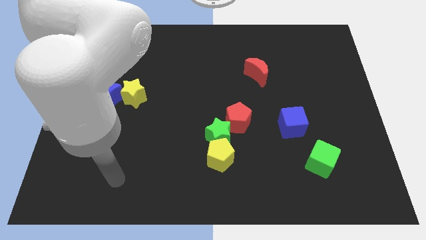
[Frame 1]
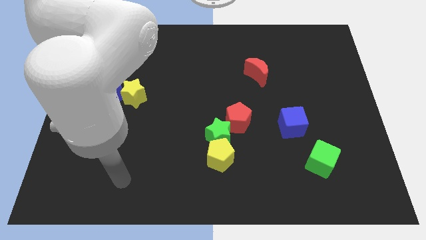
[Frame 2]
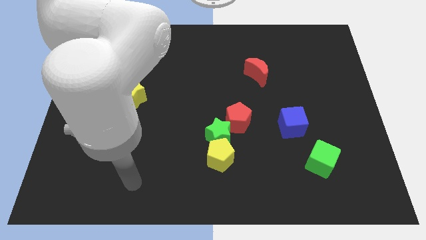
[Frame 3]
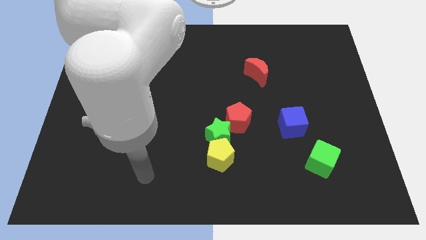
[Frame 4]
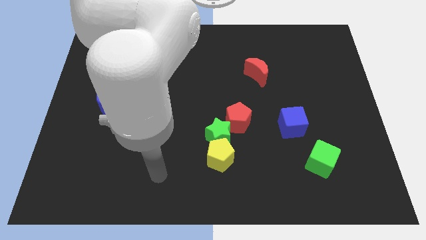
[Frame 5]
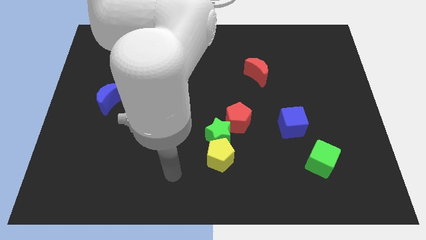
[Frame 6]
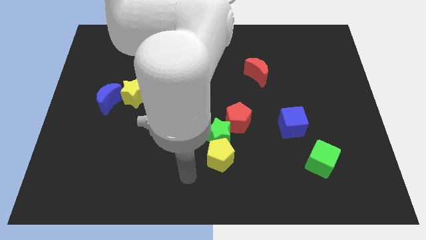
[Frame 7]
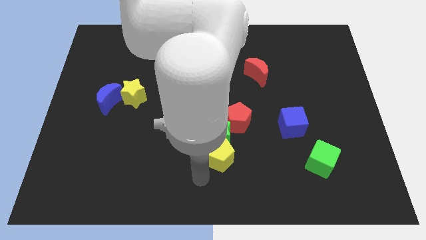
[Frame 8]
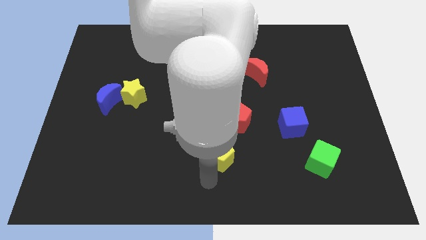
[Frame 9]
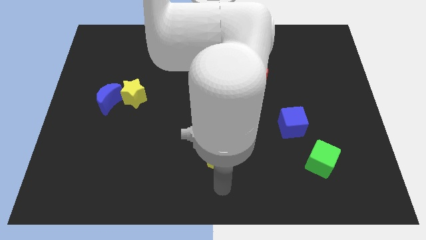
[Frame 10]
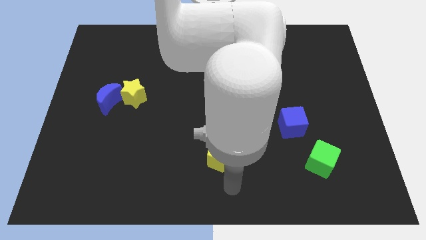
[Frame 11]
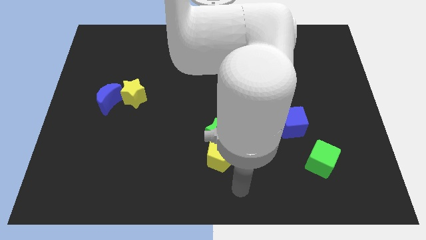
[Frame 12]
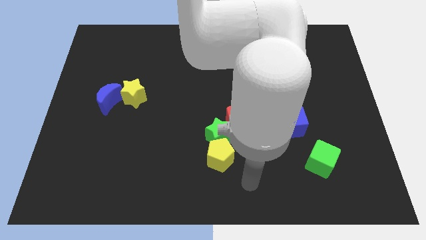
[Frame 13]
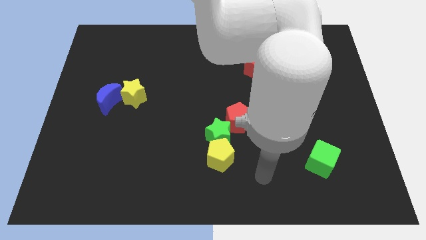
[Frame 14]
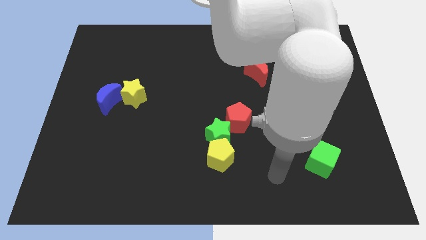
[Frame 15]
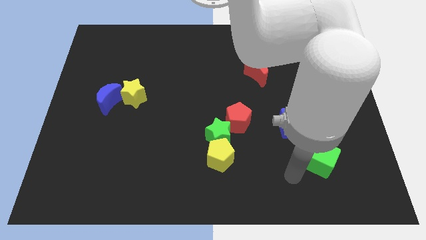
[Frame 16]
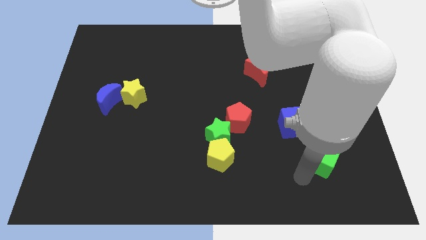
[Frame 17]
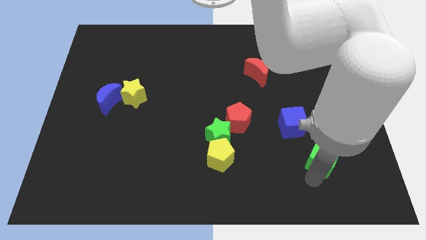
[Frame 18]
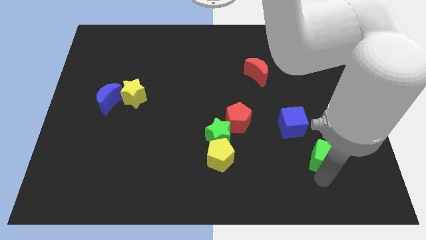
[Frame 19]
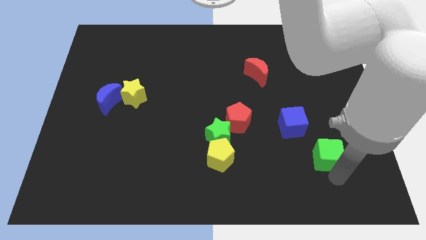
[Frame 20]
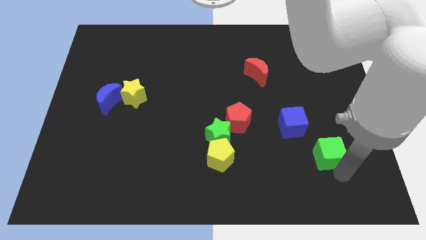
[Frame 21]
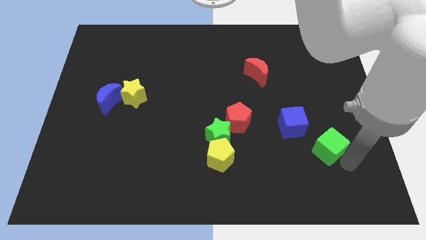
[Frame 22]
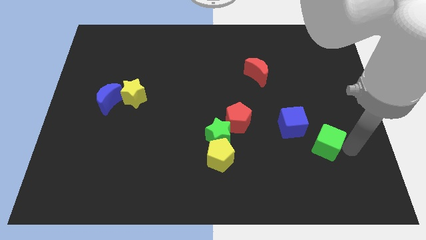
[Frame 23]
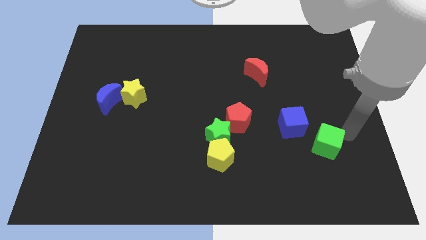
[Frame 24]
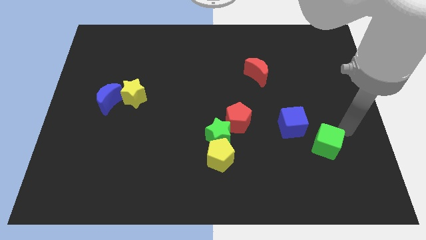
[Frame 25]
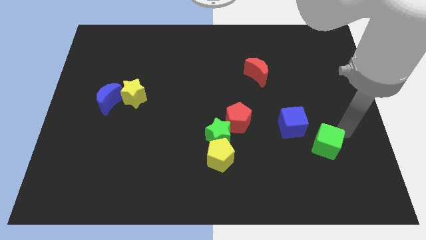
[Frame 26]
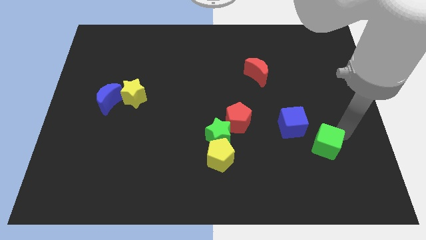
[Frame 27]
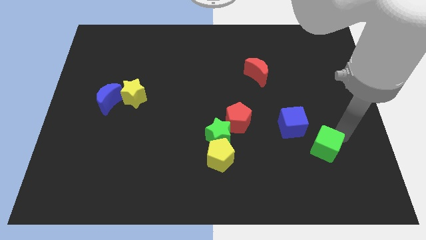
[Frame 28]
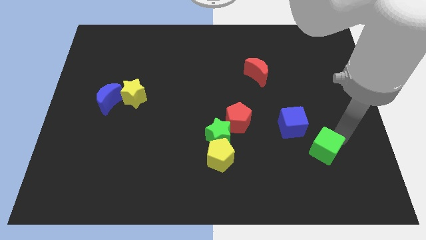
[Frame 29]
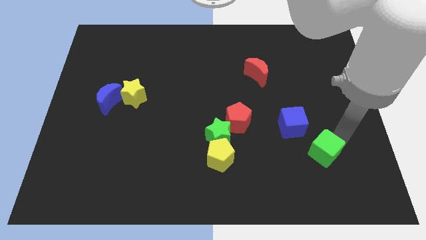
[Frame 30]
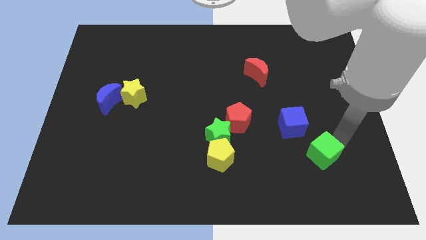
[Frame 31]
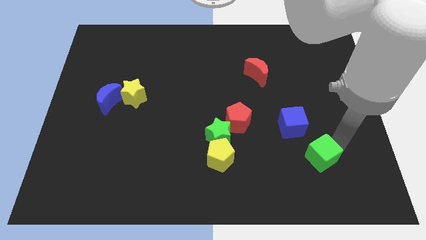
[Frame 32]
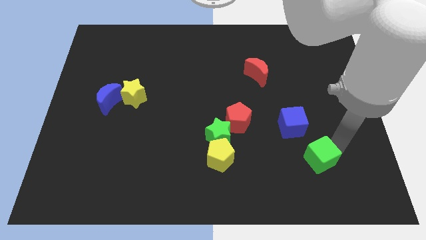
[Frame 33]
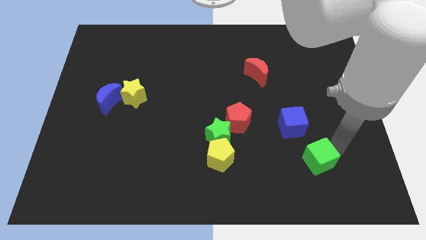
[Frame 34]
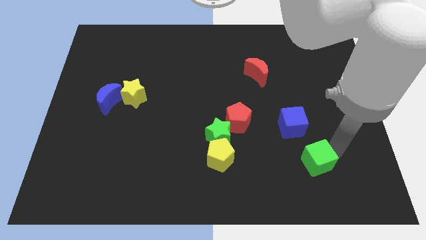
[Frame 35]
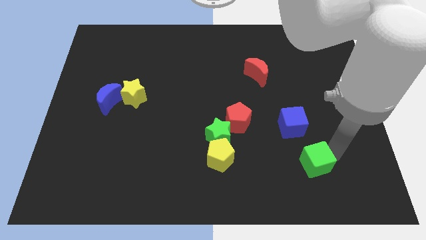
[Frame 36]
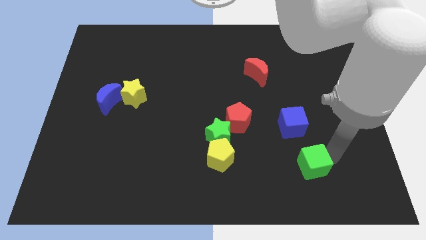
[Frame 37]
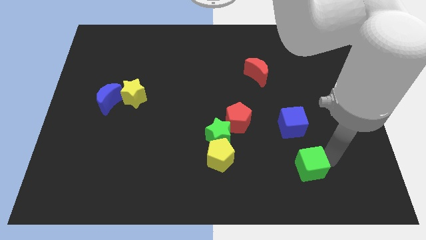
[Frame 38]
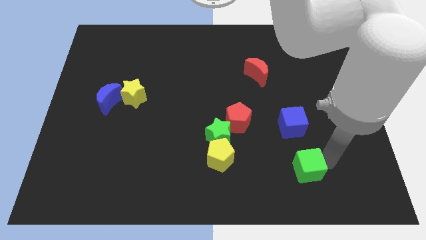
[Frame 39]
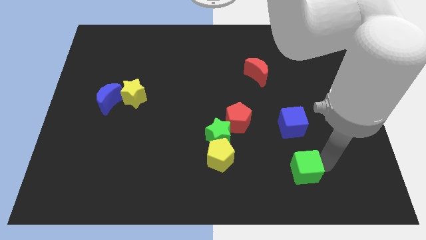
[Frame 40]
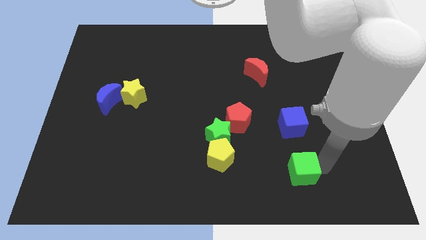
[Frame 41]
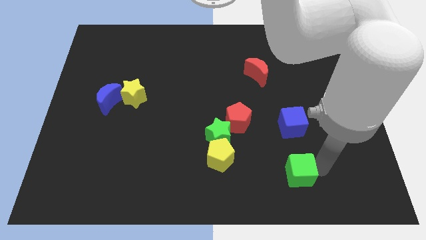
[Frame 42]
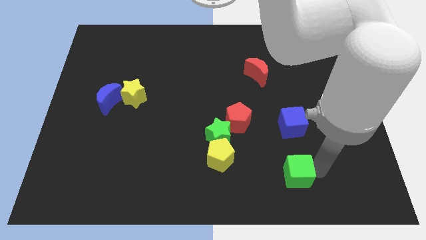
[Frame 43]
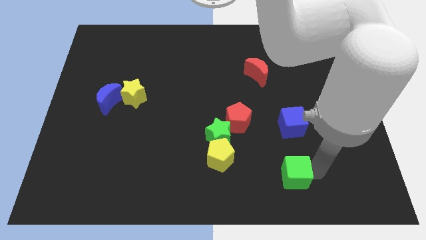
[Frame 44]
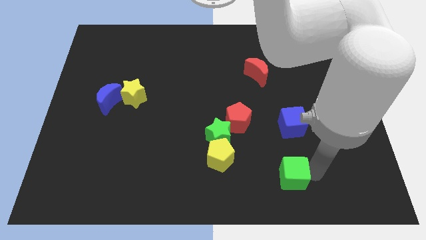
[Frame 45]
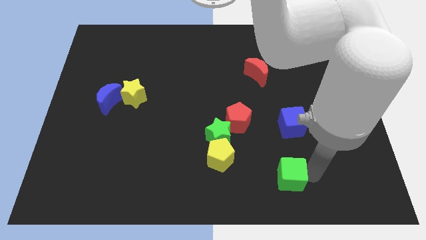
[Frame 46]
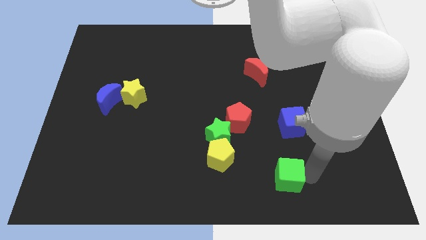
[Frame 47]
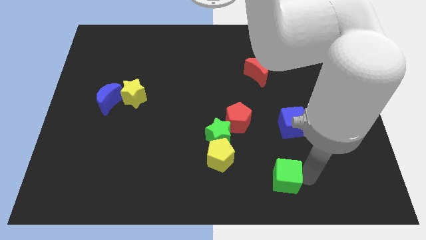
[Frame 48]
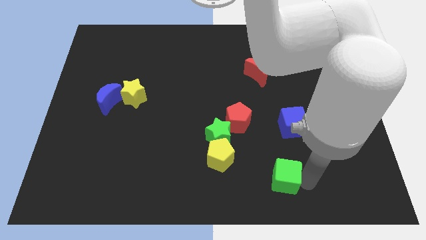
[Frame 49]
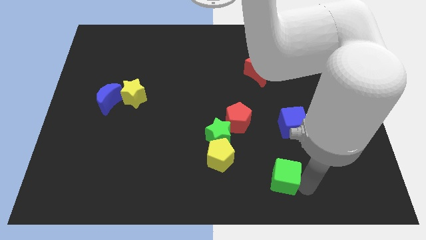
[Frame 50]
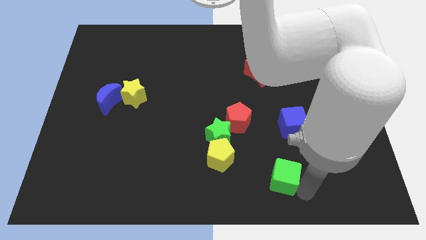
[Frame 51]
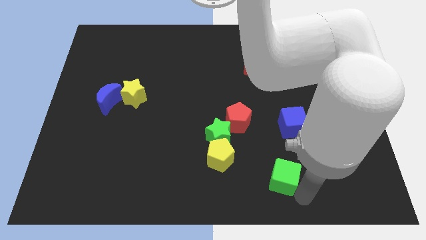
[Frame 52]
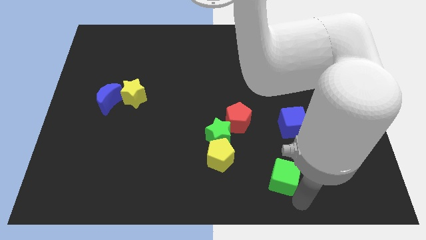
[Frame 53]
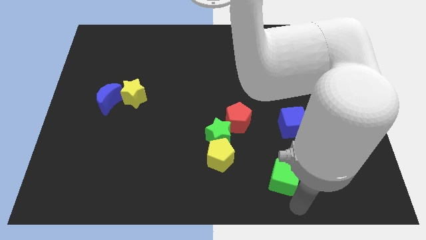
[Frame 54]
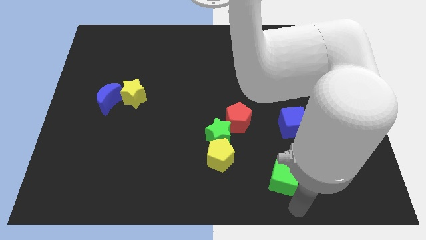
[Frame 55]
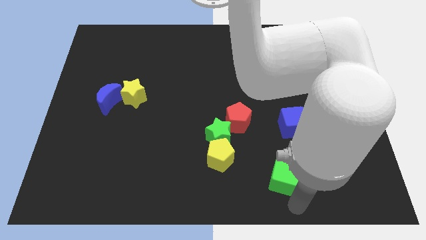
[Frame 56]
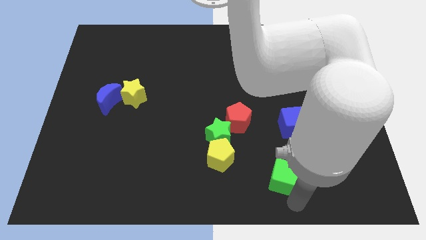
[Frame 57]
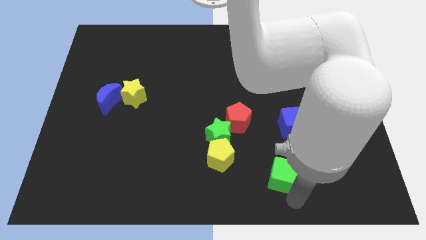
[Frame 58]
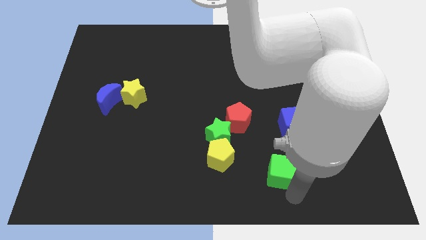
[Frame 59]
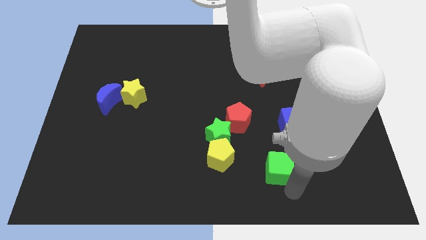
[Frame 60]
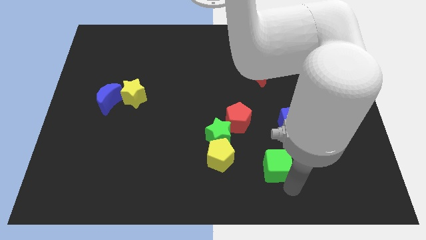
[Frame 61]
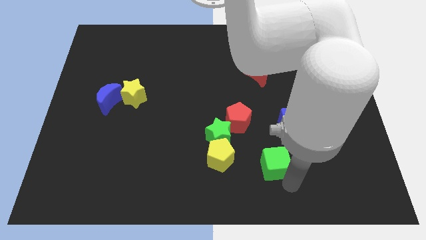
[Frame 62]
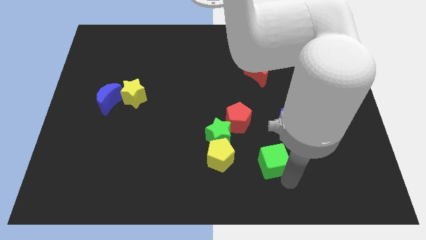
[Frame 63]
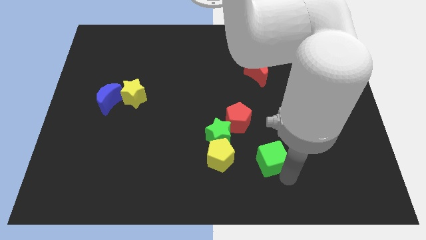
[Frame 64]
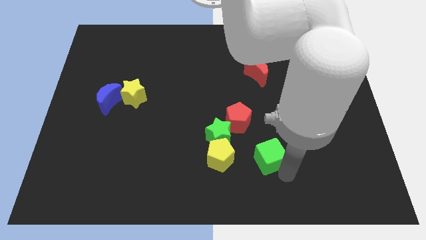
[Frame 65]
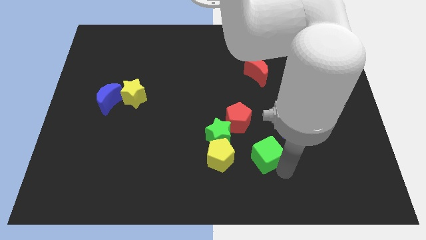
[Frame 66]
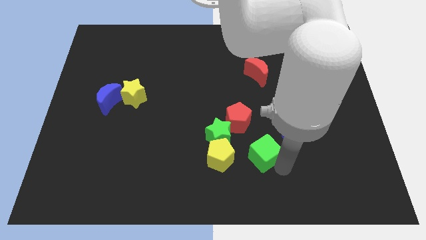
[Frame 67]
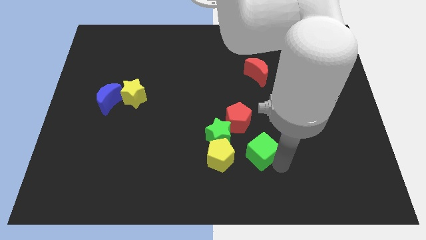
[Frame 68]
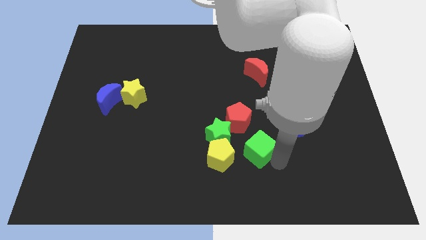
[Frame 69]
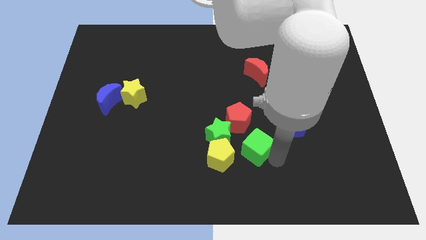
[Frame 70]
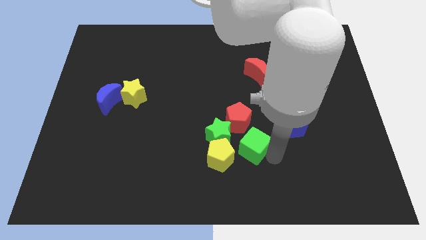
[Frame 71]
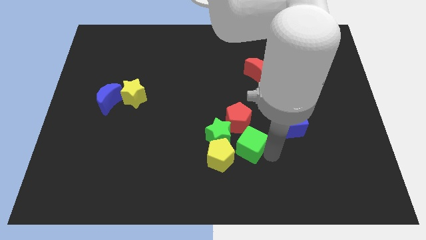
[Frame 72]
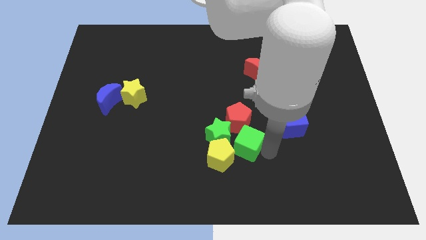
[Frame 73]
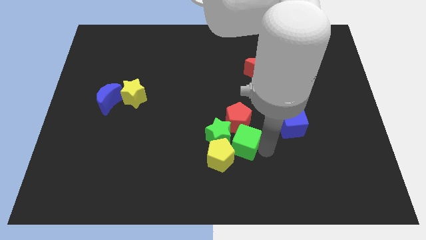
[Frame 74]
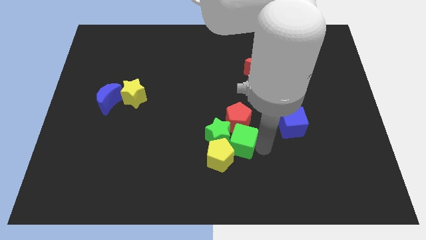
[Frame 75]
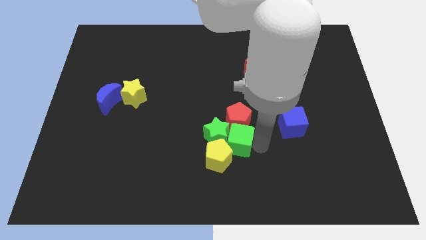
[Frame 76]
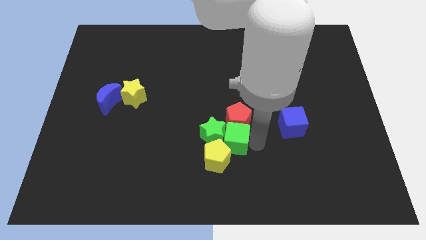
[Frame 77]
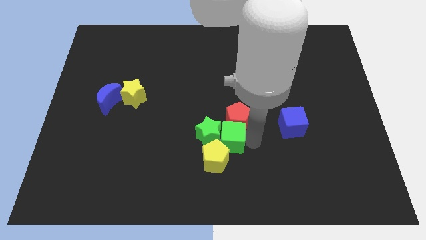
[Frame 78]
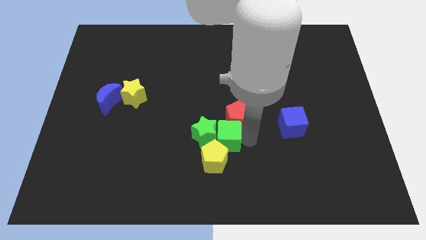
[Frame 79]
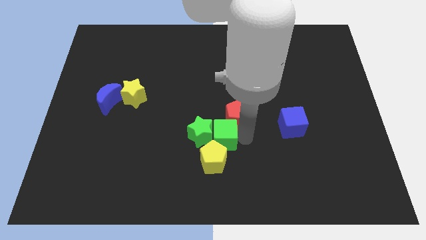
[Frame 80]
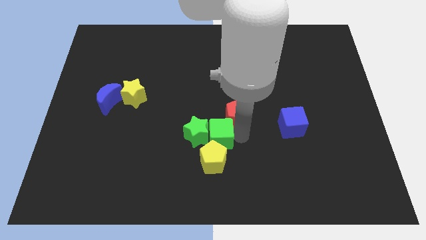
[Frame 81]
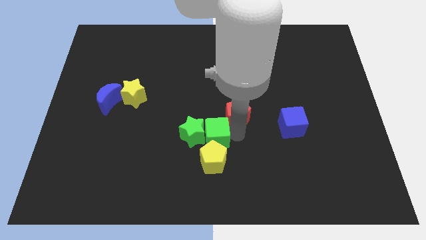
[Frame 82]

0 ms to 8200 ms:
move the green cube diagonally up and to the left of the yellow pentagon
